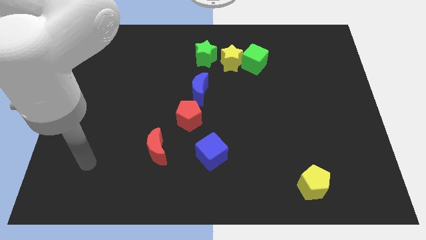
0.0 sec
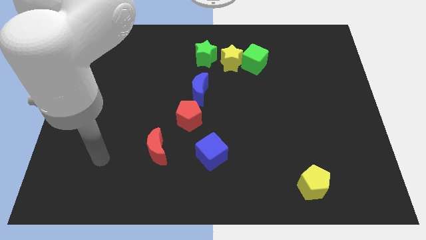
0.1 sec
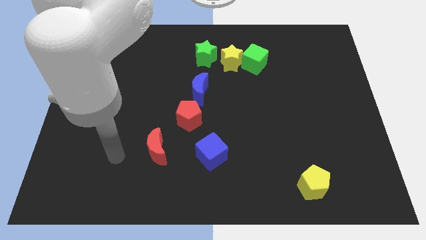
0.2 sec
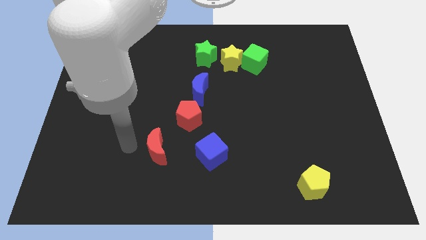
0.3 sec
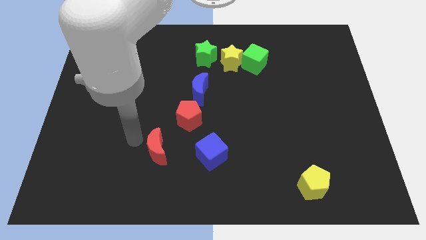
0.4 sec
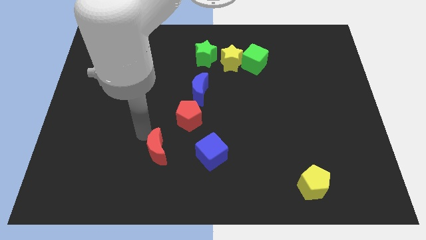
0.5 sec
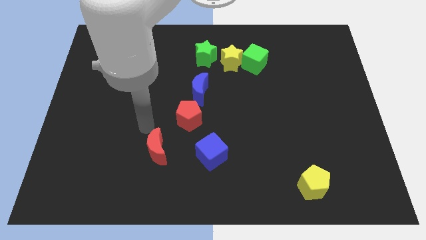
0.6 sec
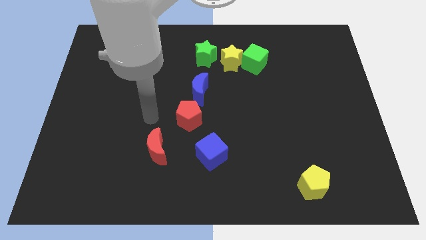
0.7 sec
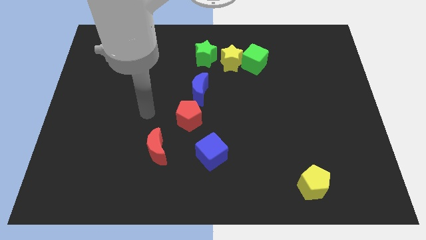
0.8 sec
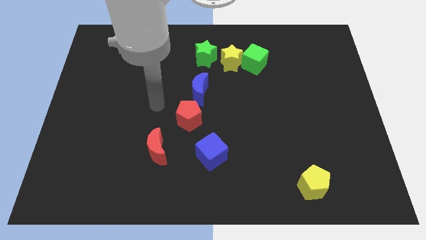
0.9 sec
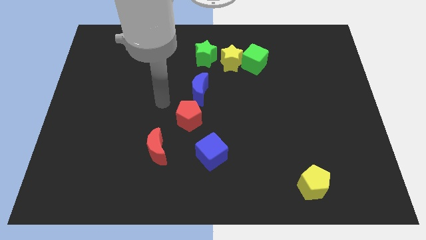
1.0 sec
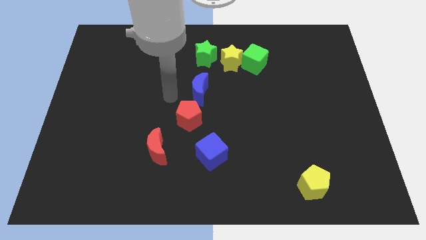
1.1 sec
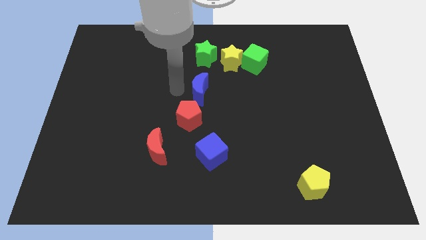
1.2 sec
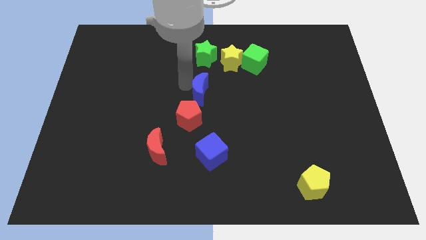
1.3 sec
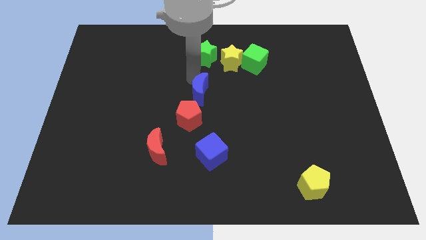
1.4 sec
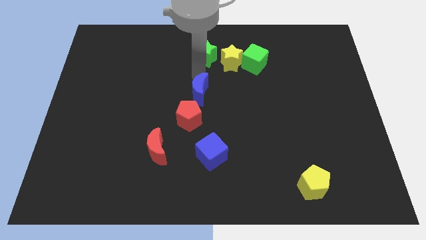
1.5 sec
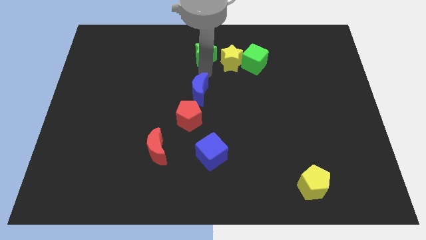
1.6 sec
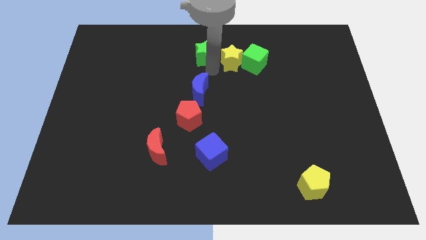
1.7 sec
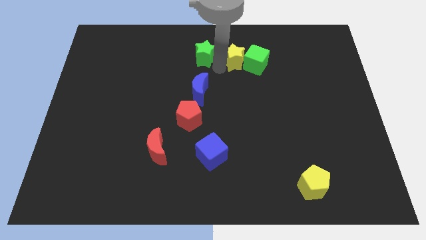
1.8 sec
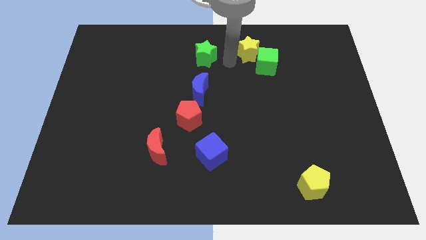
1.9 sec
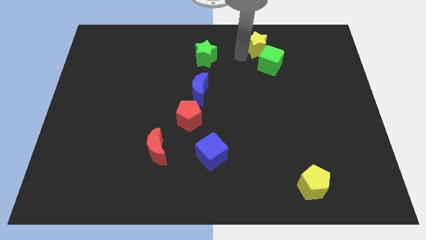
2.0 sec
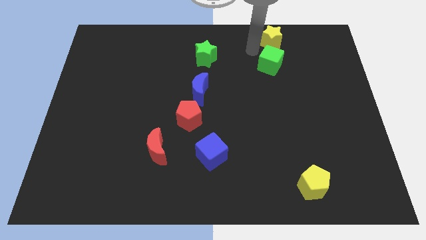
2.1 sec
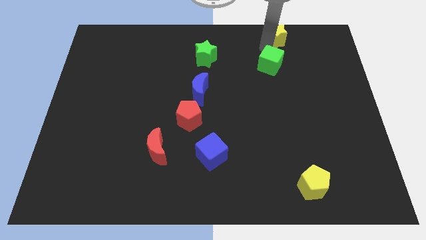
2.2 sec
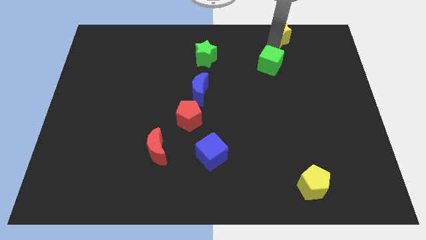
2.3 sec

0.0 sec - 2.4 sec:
pull the green cube apart from the yellow star

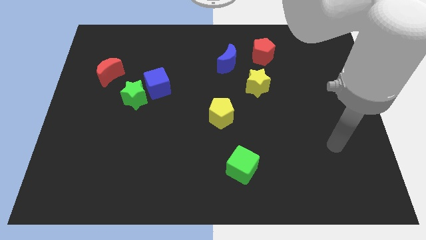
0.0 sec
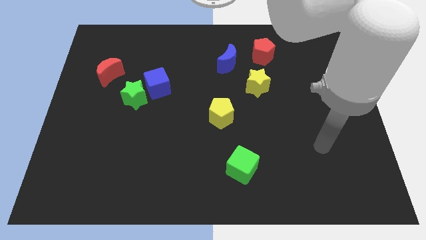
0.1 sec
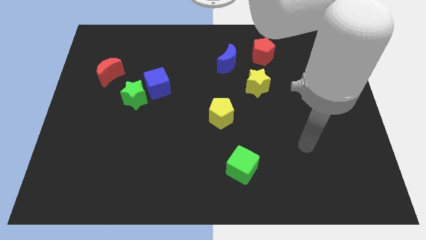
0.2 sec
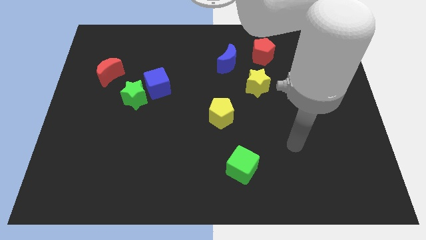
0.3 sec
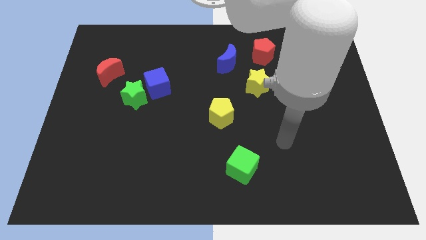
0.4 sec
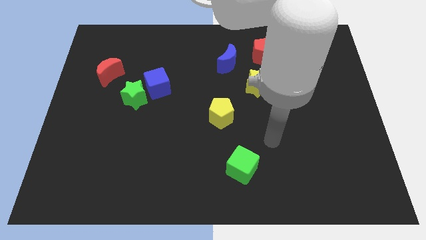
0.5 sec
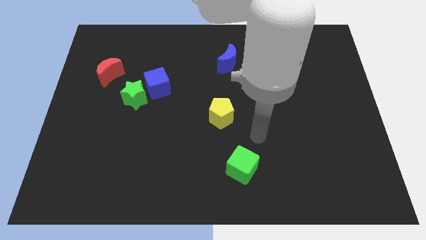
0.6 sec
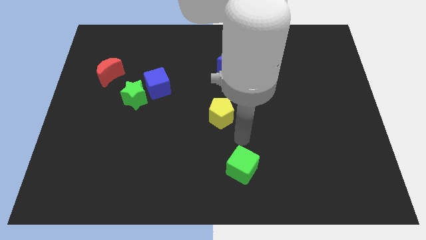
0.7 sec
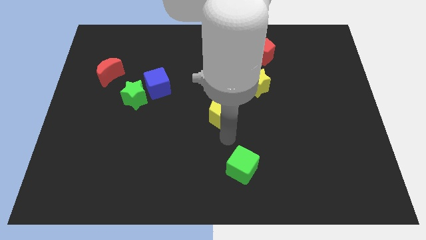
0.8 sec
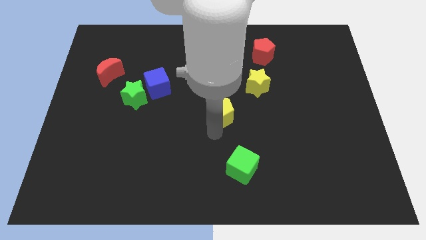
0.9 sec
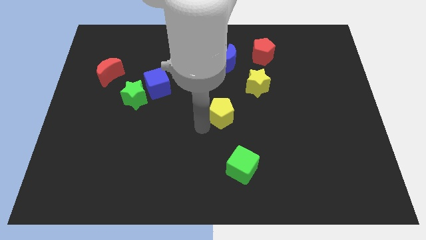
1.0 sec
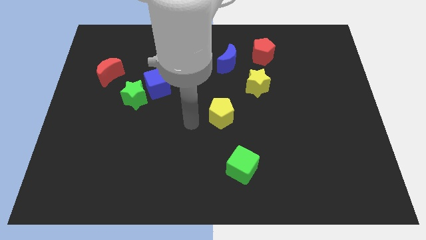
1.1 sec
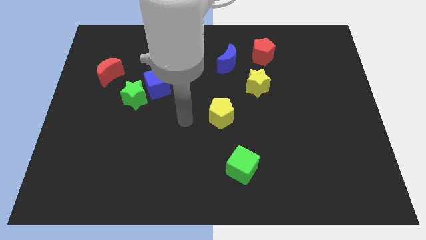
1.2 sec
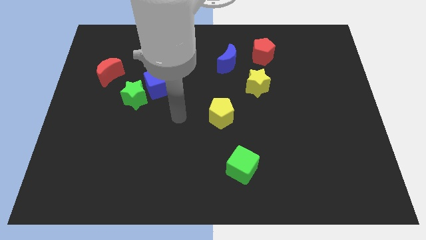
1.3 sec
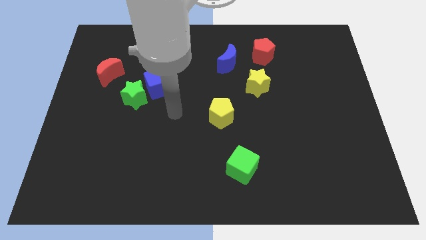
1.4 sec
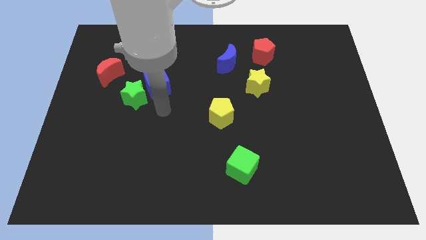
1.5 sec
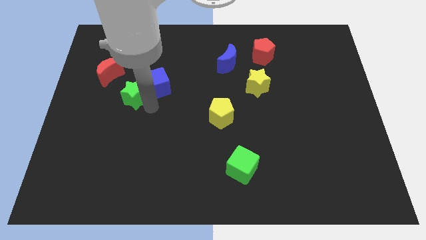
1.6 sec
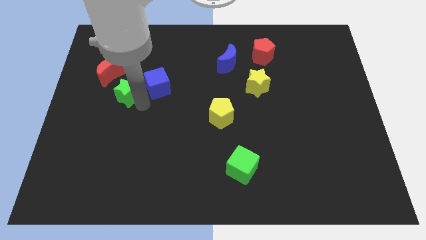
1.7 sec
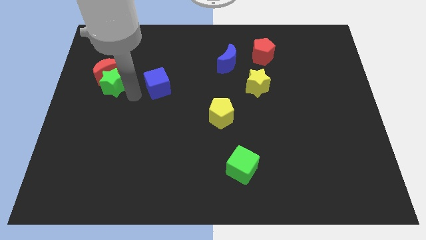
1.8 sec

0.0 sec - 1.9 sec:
separate the blue cube from the green star

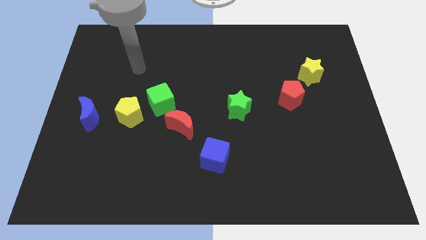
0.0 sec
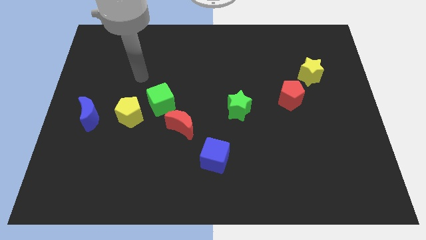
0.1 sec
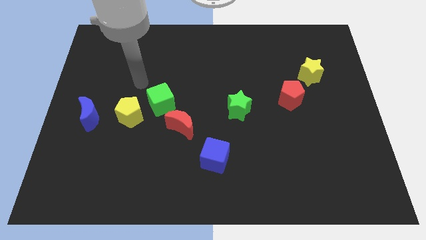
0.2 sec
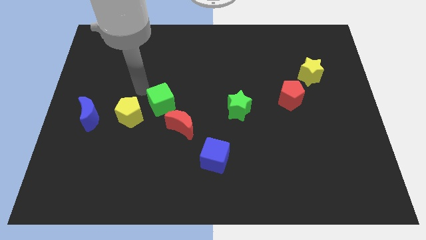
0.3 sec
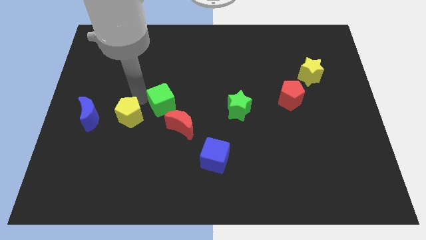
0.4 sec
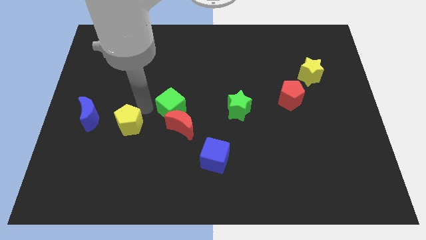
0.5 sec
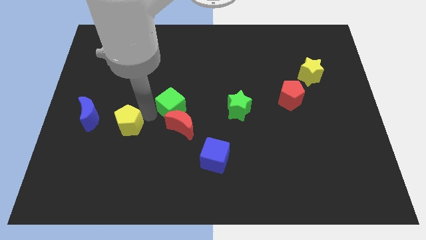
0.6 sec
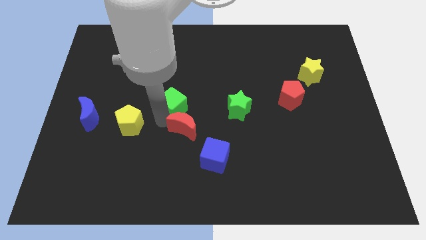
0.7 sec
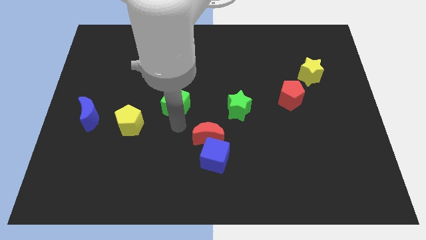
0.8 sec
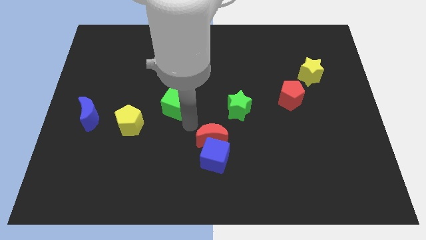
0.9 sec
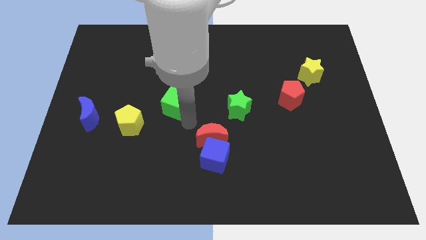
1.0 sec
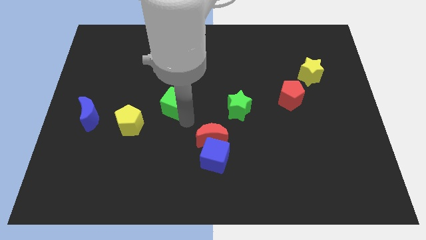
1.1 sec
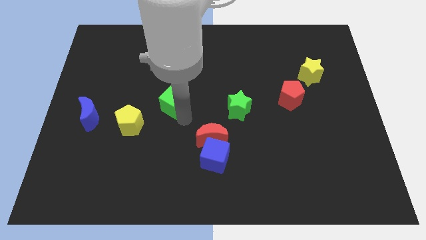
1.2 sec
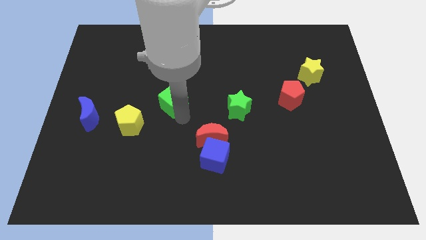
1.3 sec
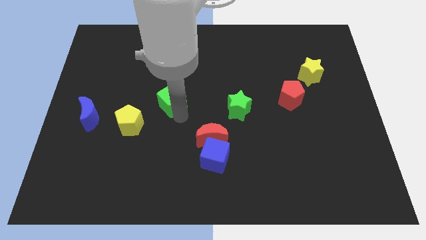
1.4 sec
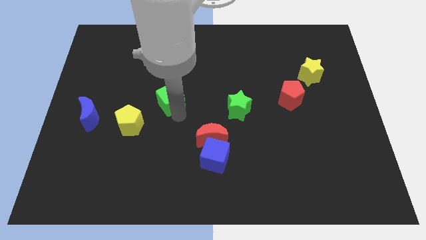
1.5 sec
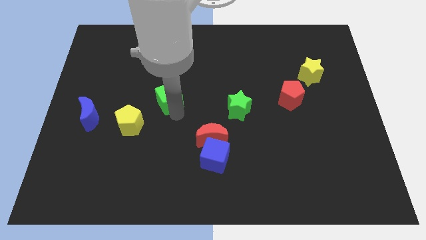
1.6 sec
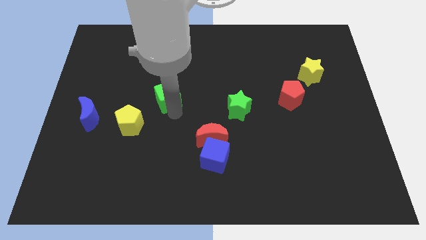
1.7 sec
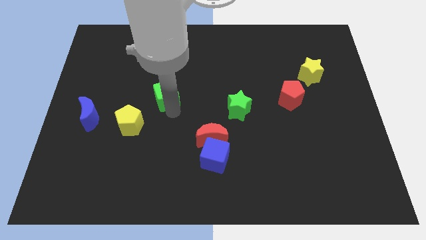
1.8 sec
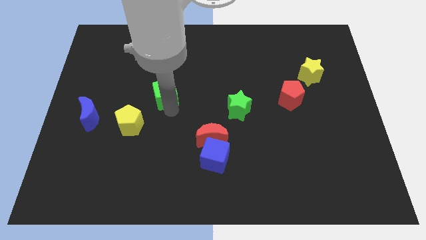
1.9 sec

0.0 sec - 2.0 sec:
separate the green cube from the yellow pentagon and red moon

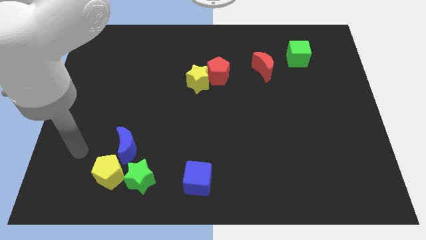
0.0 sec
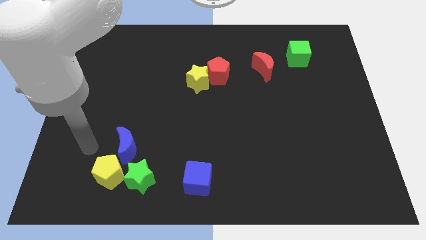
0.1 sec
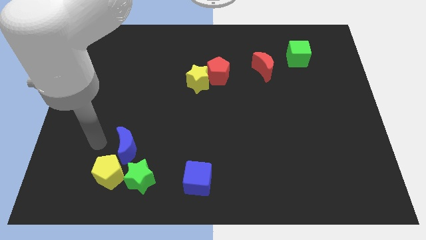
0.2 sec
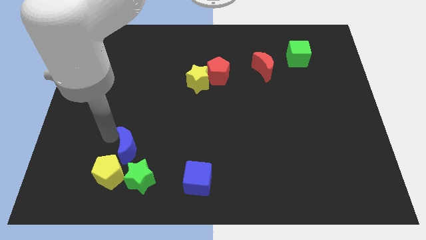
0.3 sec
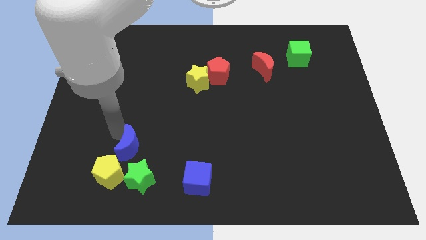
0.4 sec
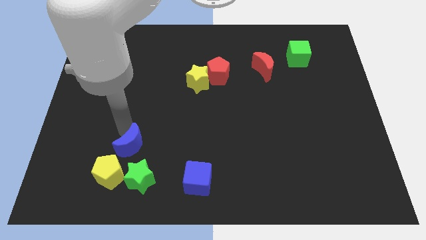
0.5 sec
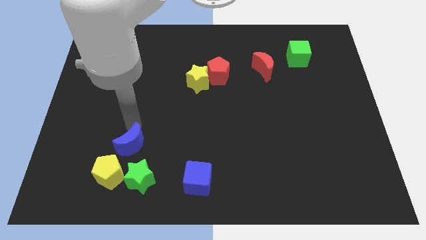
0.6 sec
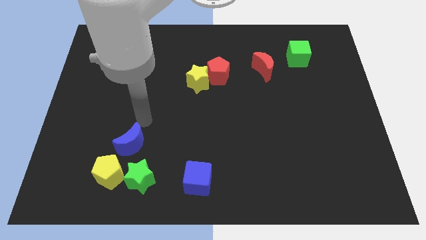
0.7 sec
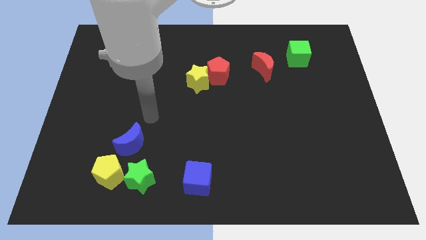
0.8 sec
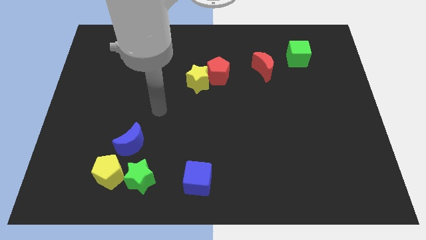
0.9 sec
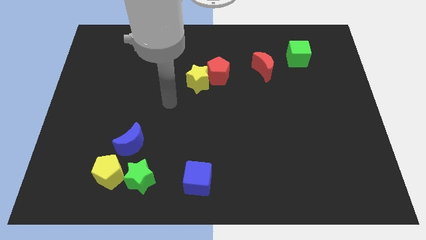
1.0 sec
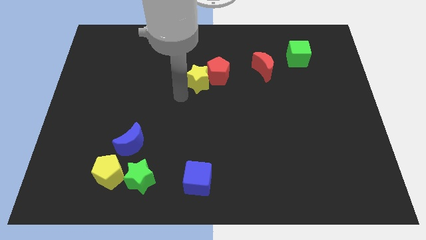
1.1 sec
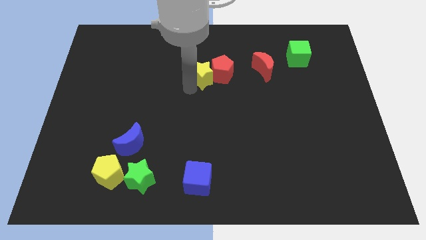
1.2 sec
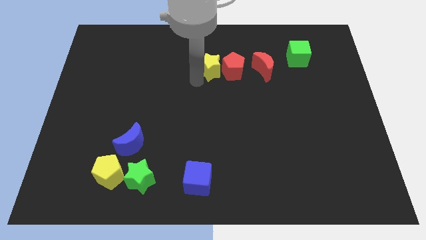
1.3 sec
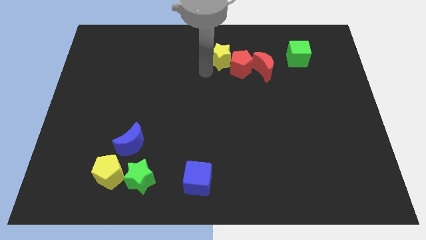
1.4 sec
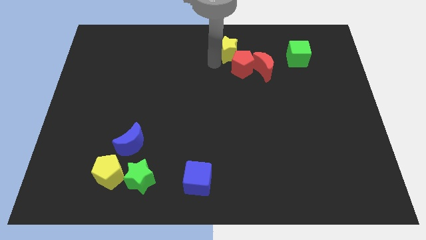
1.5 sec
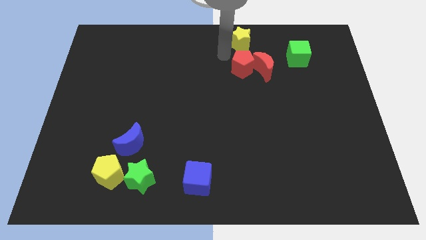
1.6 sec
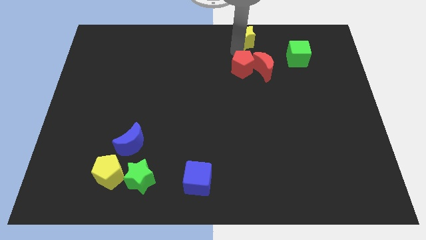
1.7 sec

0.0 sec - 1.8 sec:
separate the red pentagon from the yellow star

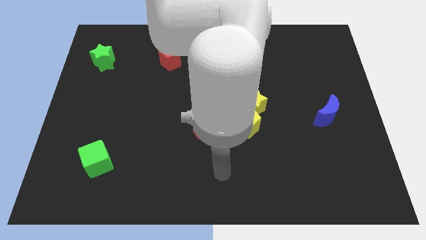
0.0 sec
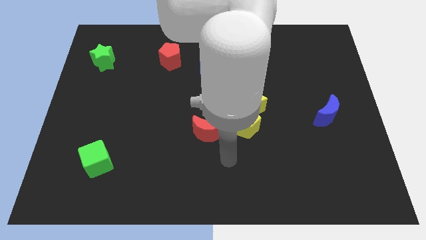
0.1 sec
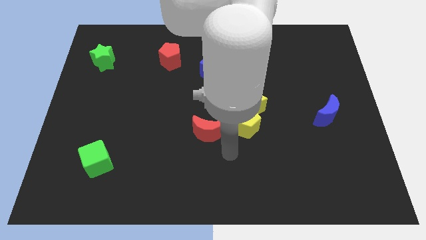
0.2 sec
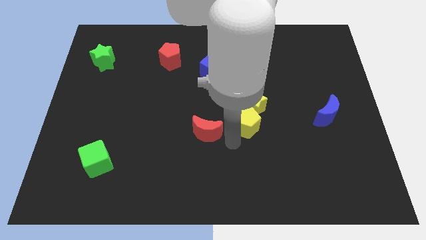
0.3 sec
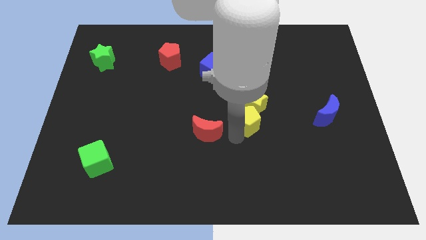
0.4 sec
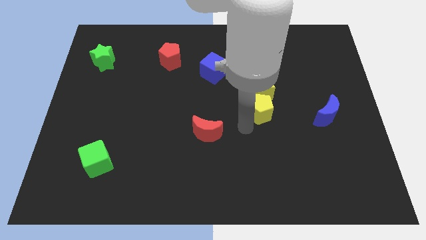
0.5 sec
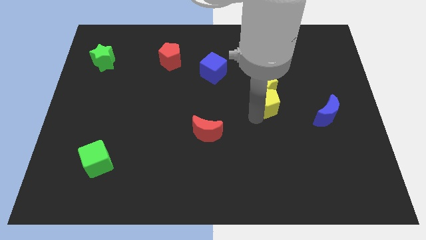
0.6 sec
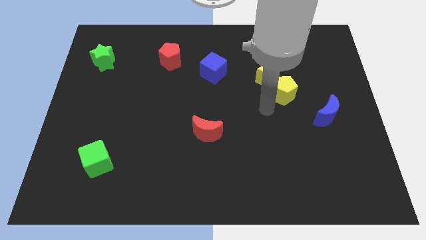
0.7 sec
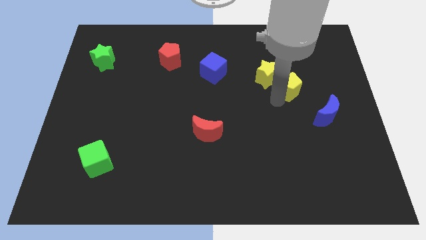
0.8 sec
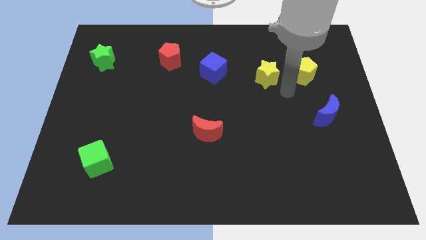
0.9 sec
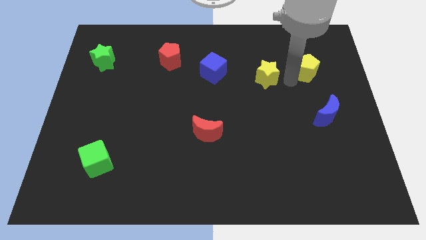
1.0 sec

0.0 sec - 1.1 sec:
separate the yellow star from the yellow pentagon
